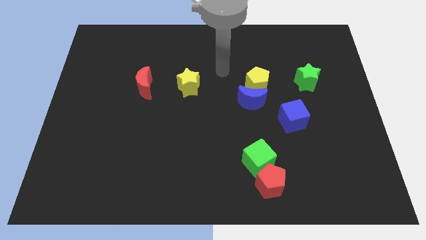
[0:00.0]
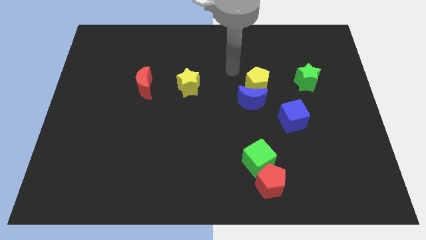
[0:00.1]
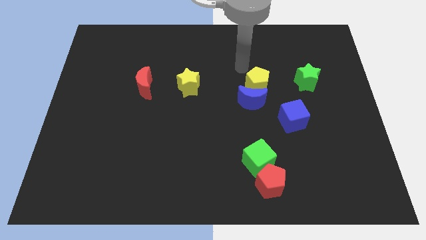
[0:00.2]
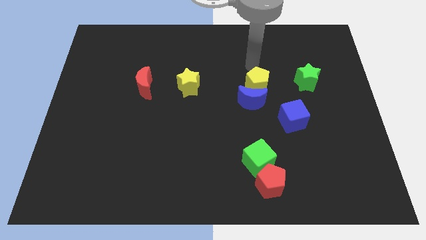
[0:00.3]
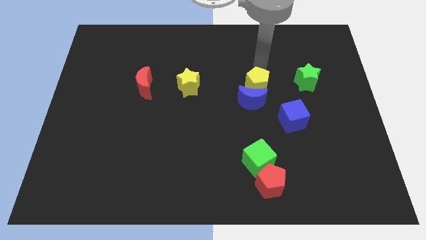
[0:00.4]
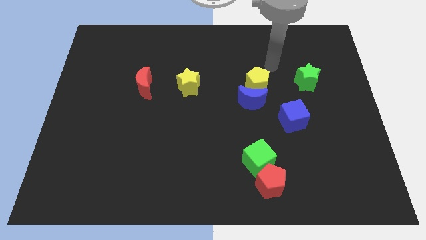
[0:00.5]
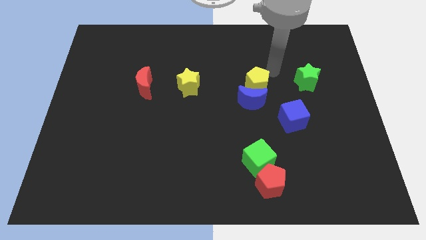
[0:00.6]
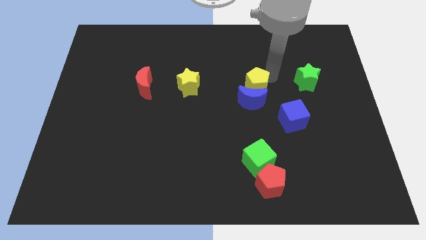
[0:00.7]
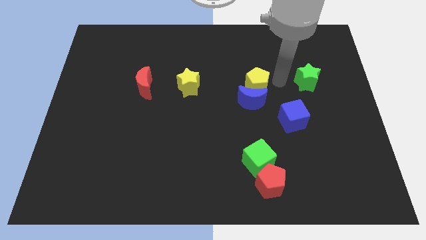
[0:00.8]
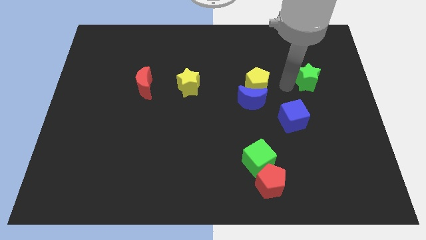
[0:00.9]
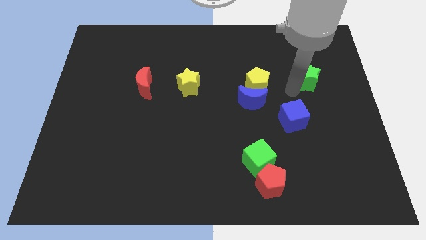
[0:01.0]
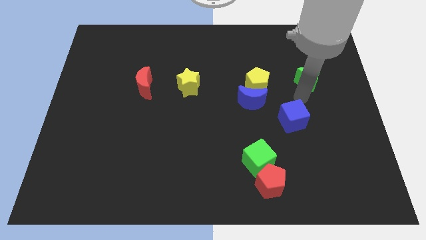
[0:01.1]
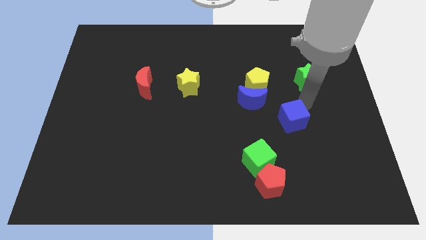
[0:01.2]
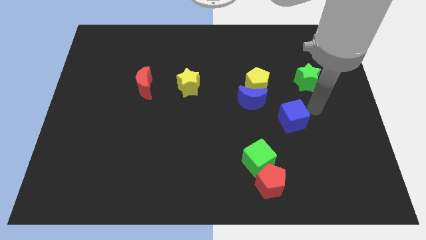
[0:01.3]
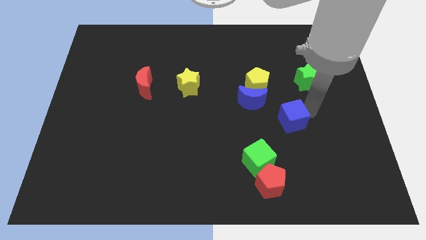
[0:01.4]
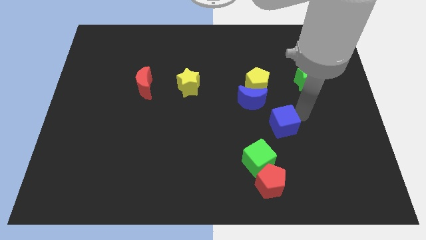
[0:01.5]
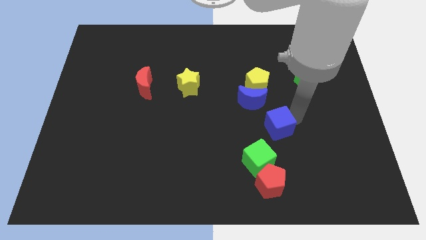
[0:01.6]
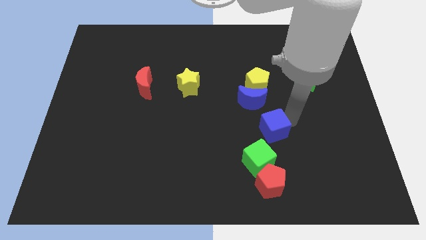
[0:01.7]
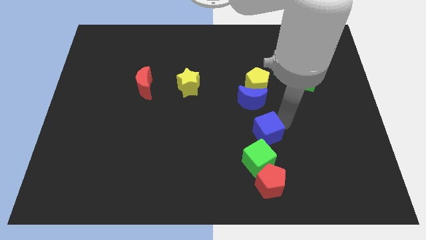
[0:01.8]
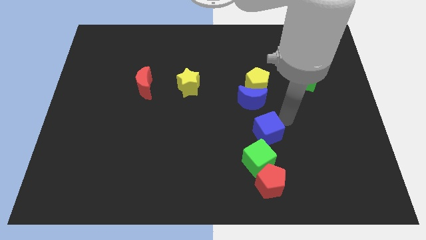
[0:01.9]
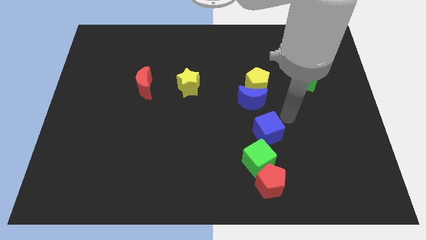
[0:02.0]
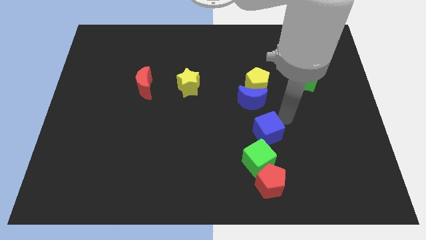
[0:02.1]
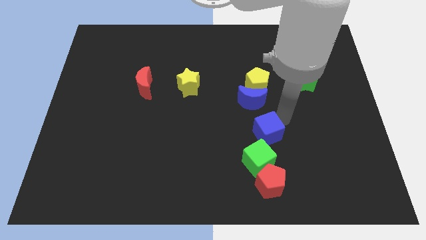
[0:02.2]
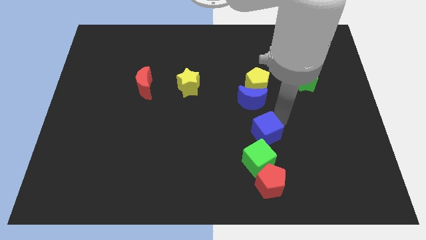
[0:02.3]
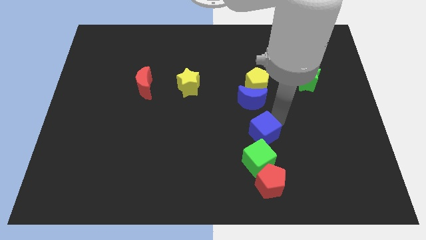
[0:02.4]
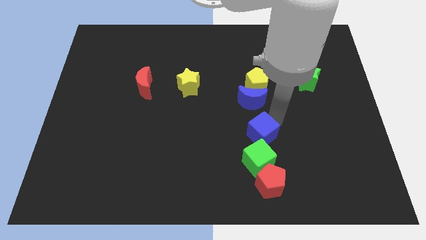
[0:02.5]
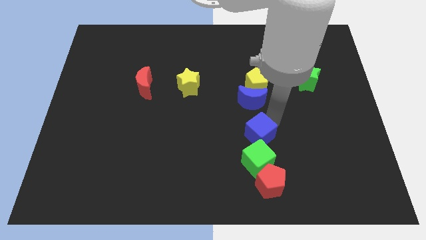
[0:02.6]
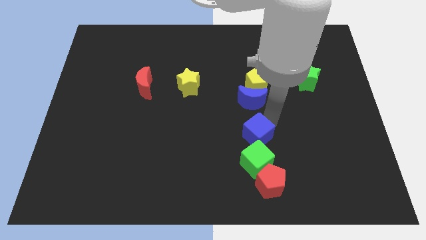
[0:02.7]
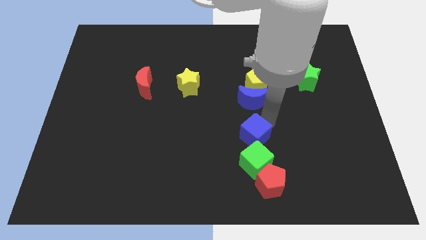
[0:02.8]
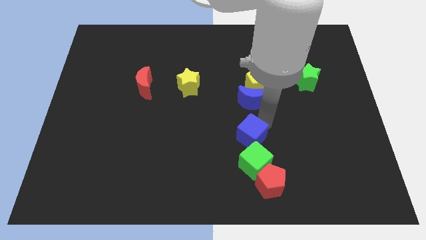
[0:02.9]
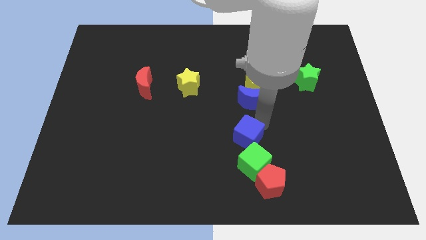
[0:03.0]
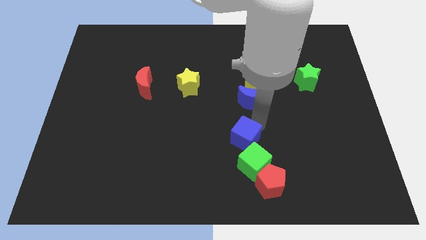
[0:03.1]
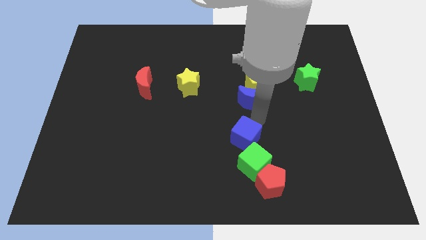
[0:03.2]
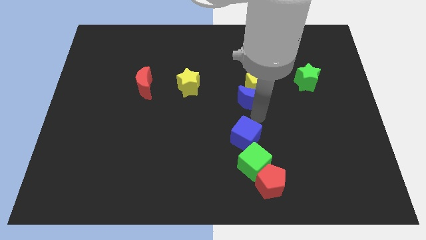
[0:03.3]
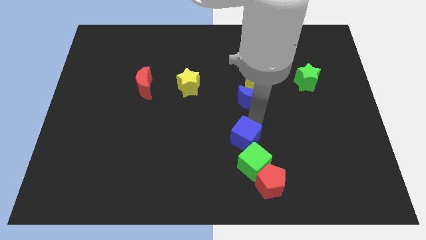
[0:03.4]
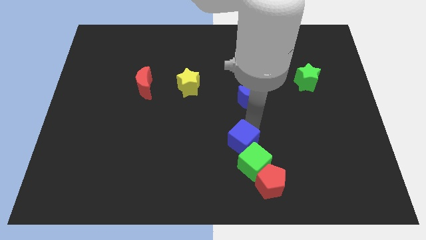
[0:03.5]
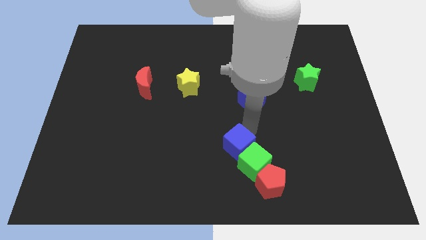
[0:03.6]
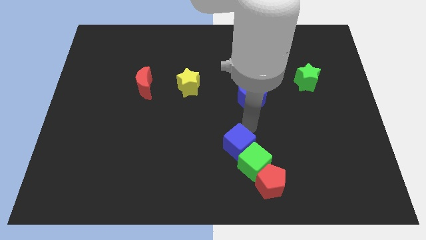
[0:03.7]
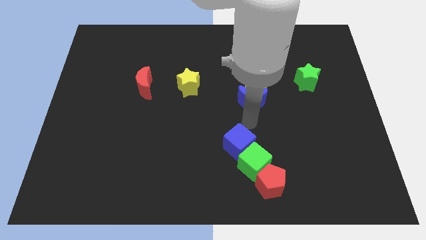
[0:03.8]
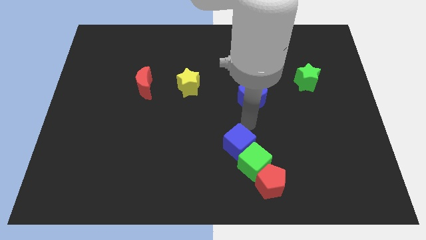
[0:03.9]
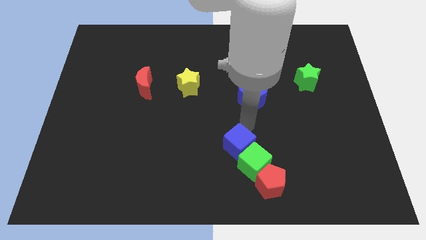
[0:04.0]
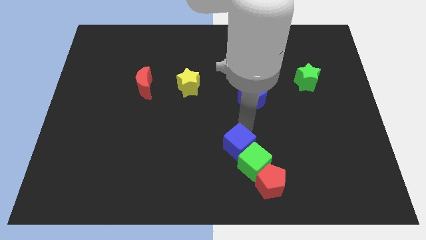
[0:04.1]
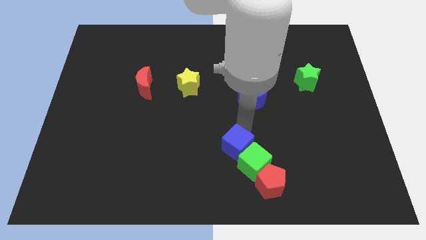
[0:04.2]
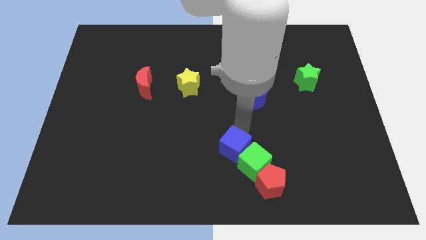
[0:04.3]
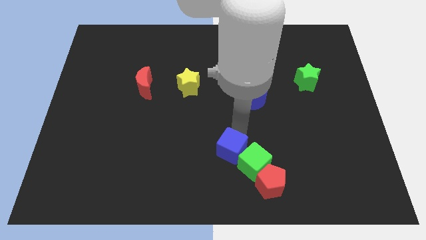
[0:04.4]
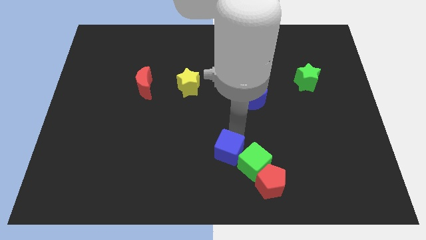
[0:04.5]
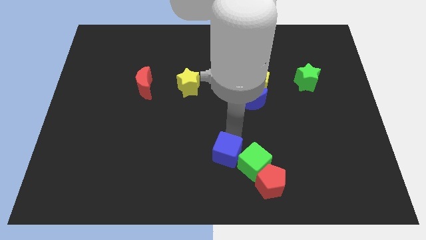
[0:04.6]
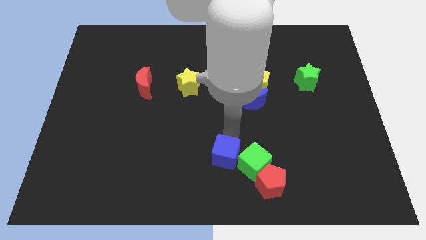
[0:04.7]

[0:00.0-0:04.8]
push the blue cube to the bottom

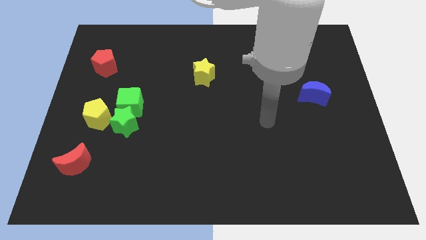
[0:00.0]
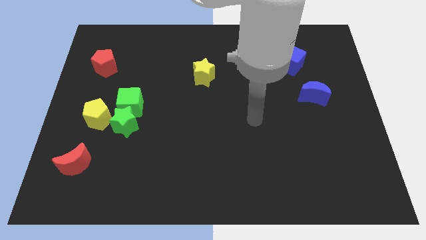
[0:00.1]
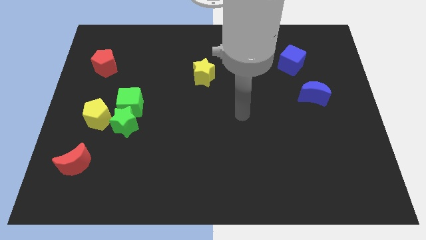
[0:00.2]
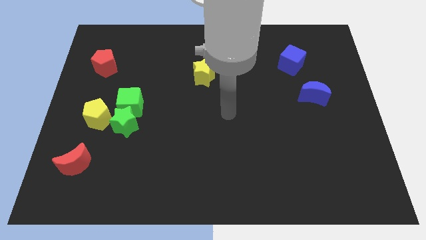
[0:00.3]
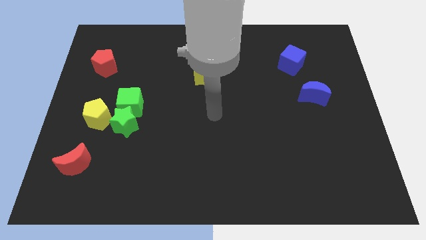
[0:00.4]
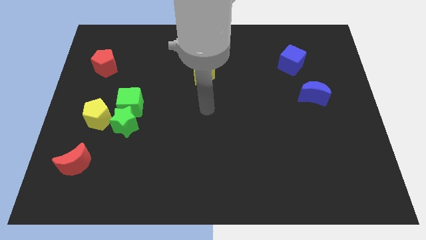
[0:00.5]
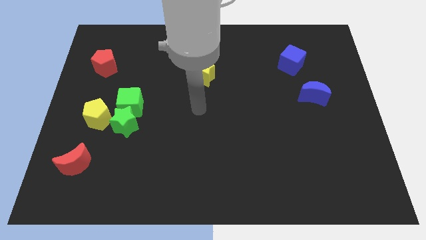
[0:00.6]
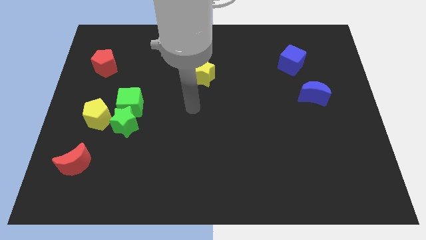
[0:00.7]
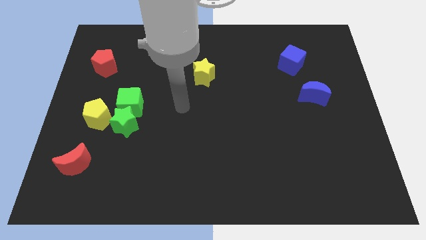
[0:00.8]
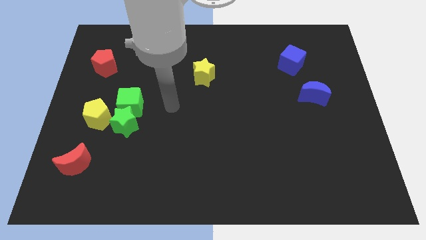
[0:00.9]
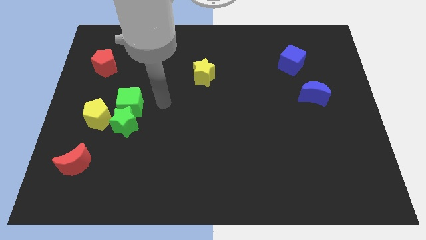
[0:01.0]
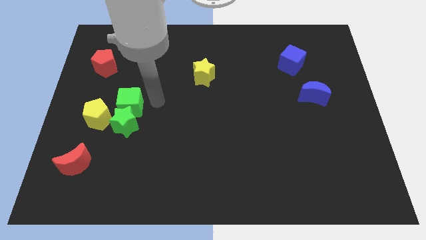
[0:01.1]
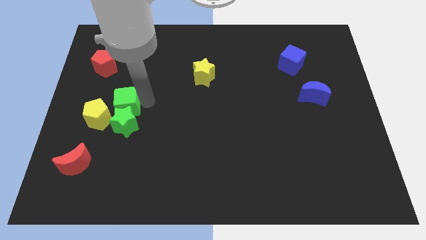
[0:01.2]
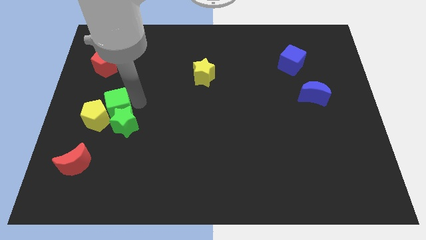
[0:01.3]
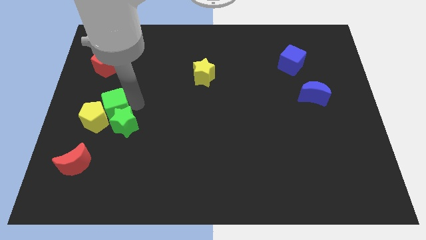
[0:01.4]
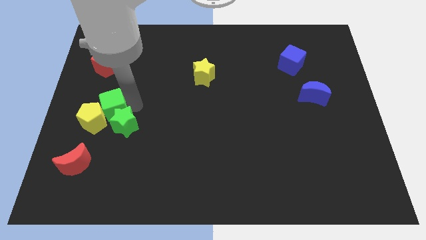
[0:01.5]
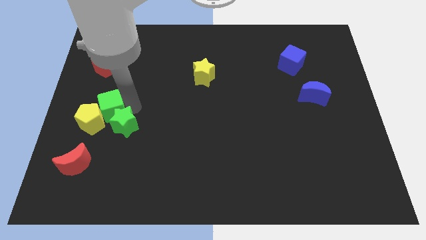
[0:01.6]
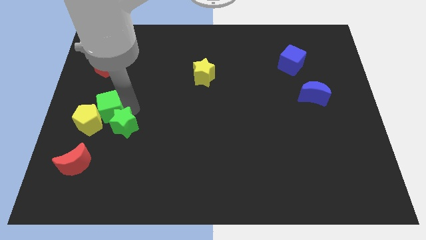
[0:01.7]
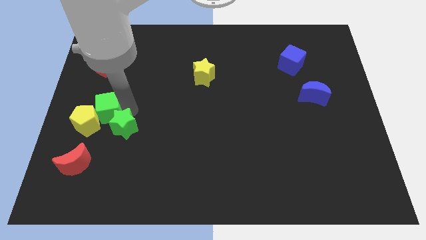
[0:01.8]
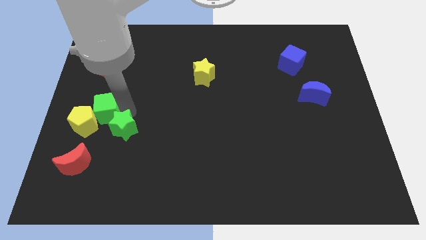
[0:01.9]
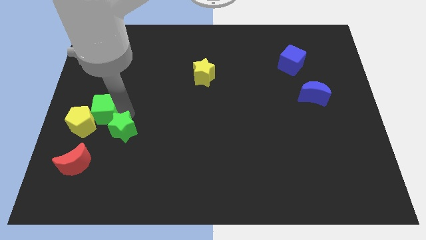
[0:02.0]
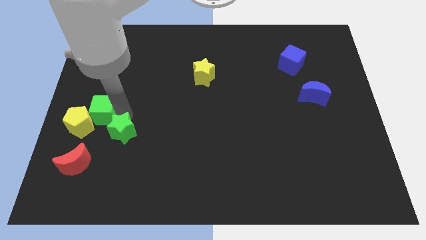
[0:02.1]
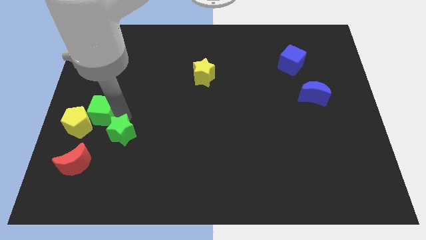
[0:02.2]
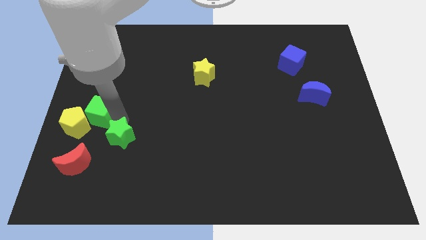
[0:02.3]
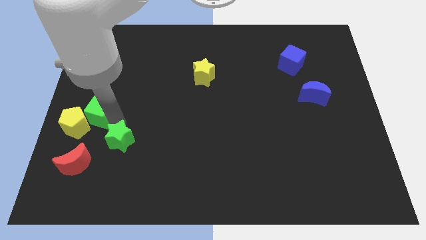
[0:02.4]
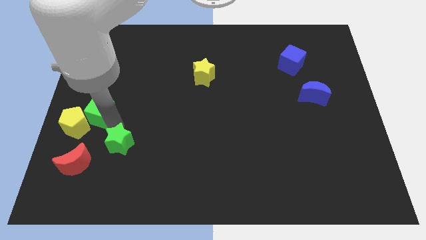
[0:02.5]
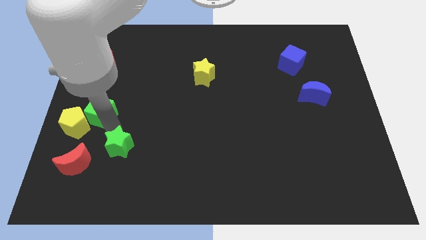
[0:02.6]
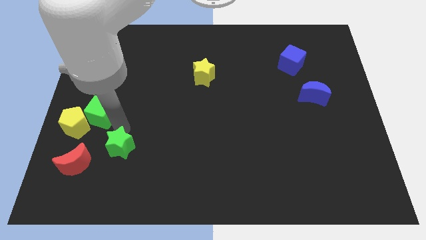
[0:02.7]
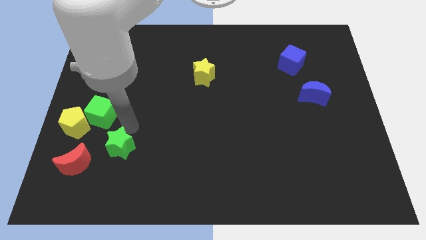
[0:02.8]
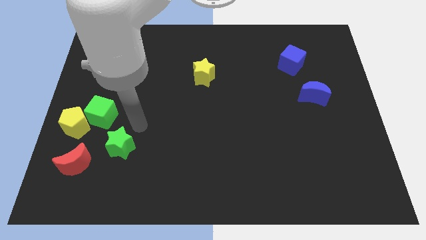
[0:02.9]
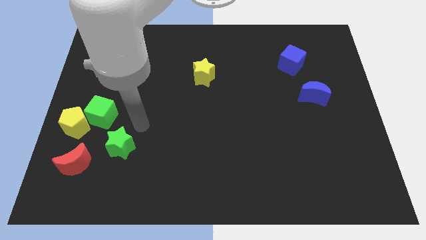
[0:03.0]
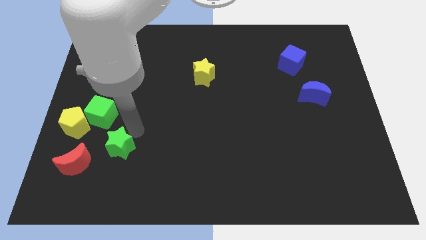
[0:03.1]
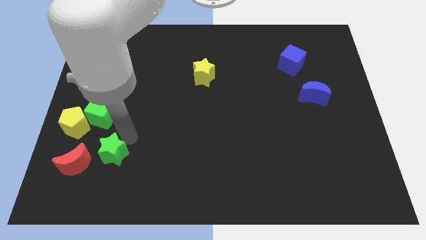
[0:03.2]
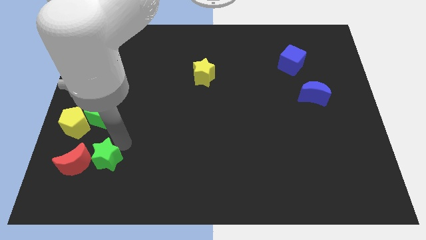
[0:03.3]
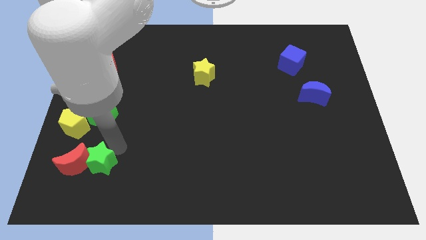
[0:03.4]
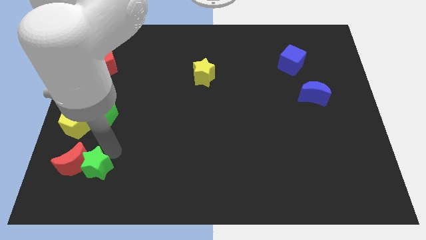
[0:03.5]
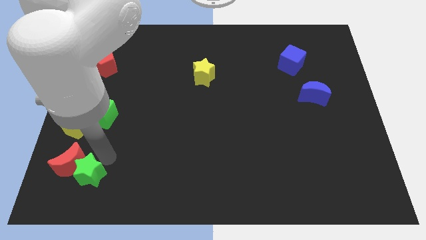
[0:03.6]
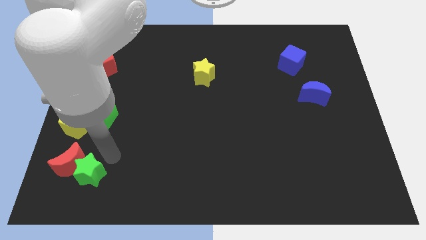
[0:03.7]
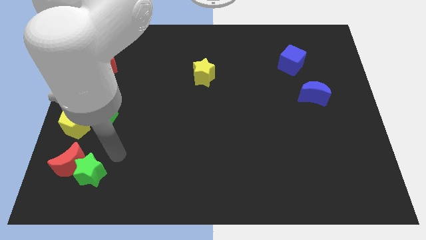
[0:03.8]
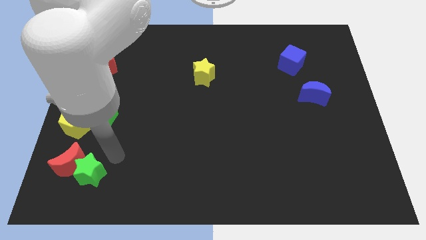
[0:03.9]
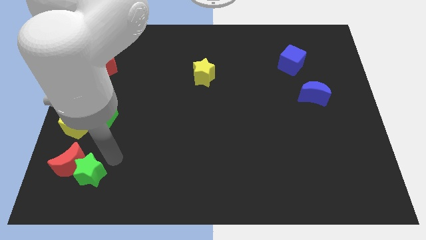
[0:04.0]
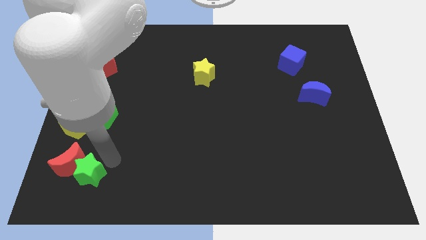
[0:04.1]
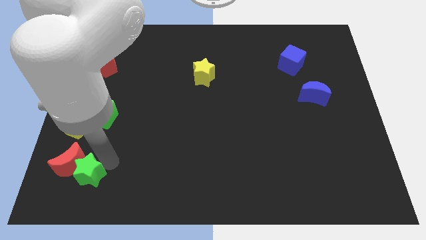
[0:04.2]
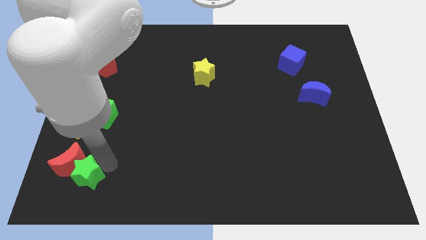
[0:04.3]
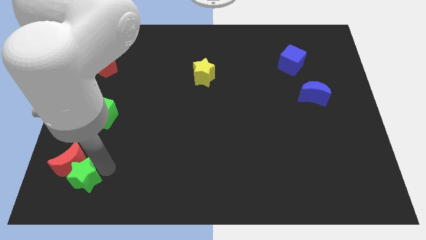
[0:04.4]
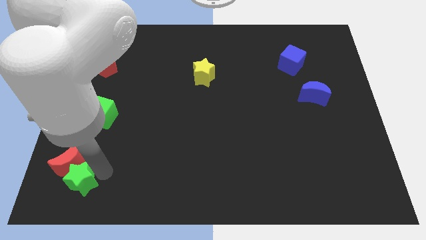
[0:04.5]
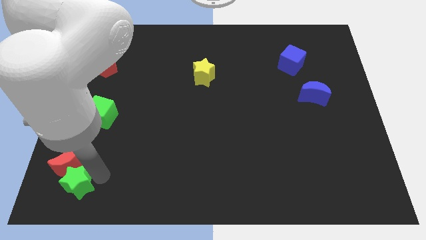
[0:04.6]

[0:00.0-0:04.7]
put the green star to the bottom left
